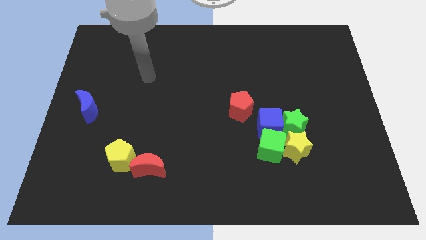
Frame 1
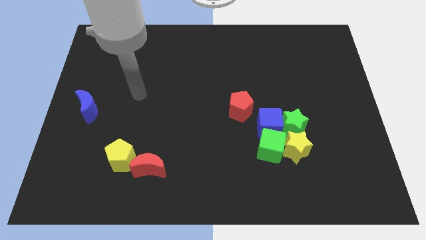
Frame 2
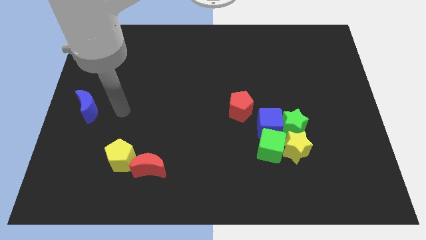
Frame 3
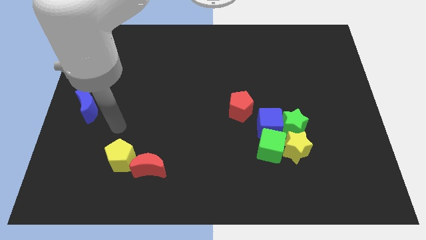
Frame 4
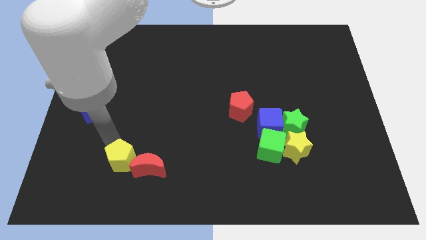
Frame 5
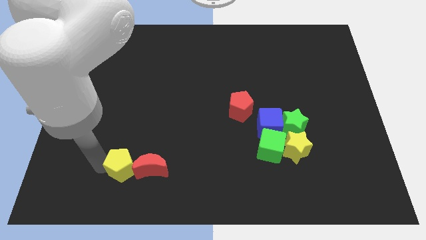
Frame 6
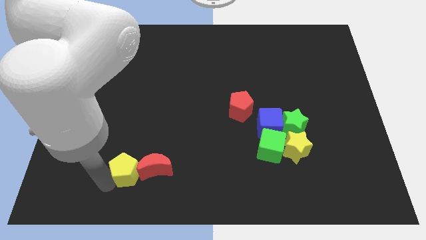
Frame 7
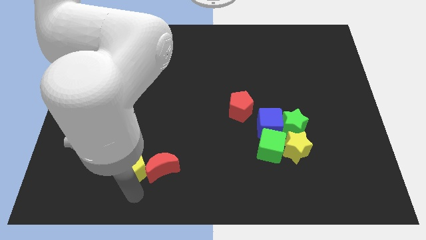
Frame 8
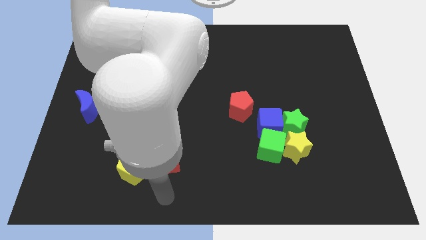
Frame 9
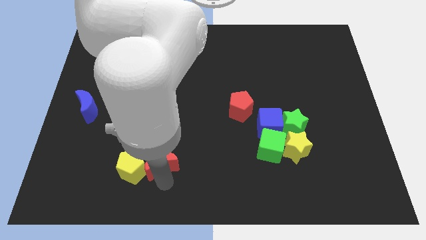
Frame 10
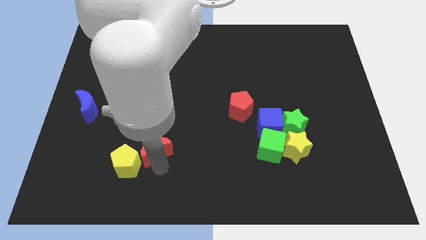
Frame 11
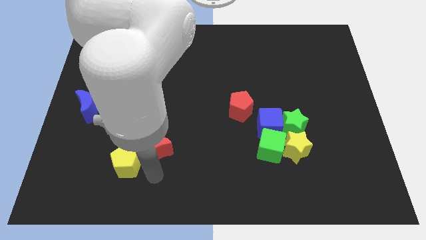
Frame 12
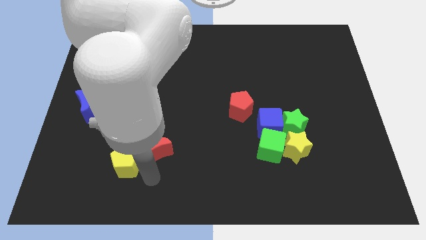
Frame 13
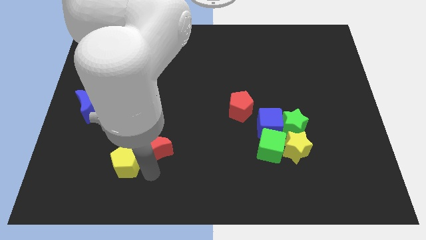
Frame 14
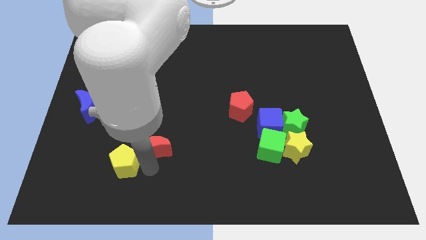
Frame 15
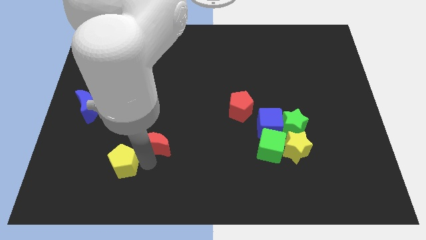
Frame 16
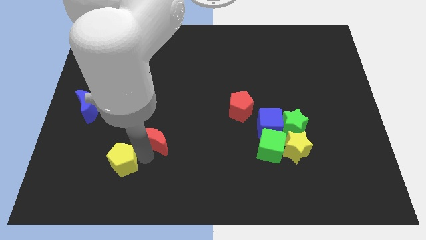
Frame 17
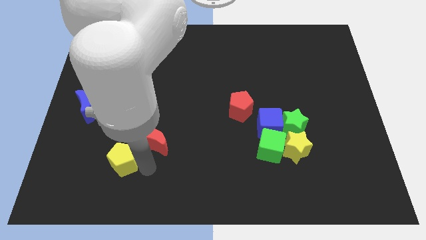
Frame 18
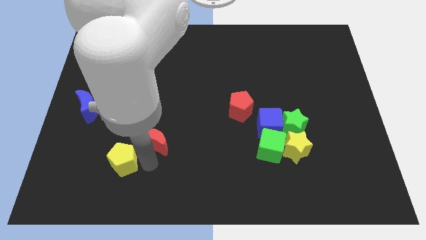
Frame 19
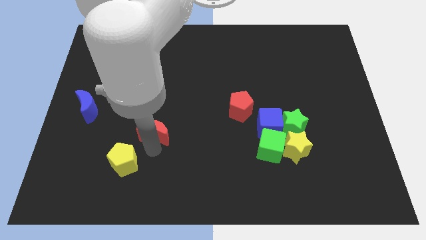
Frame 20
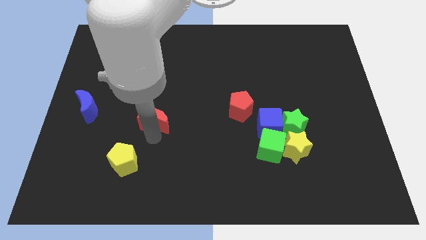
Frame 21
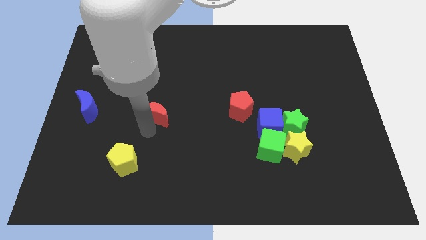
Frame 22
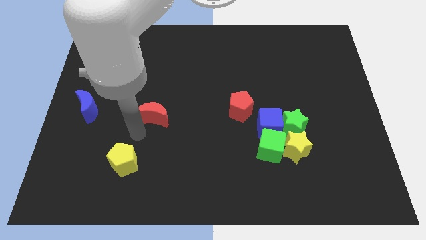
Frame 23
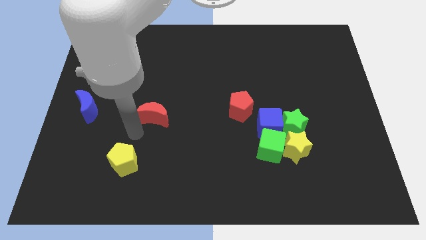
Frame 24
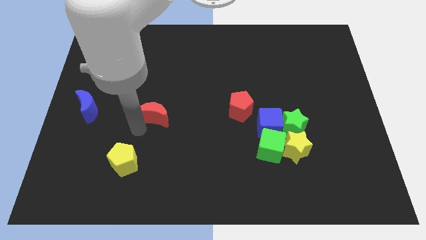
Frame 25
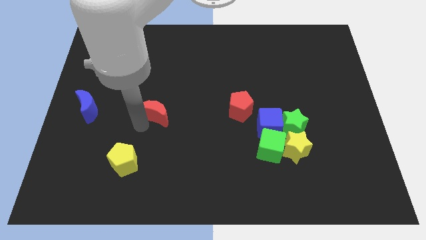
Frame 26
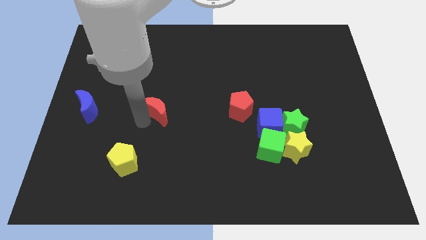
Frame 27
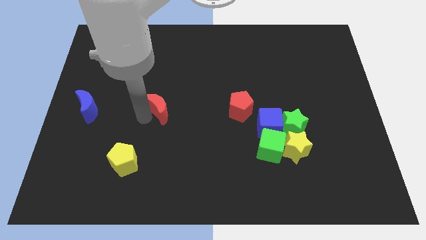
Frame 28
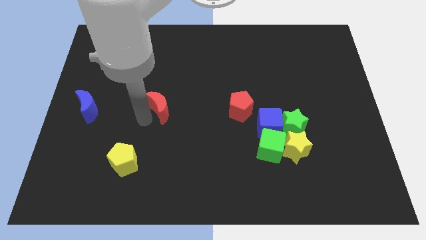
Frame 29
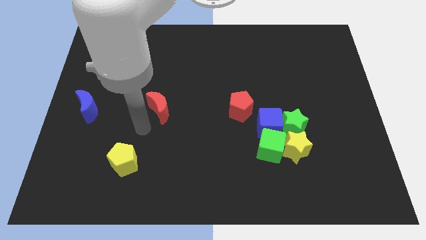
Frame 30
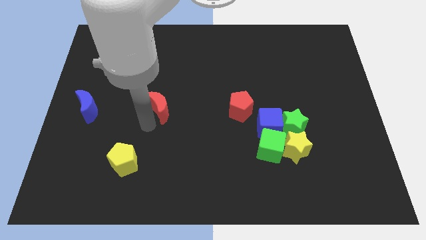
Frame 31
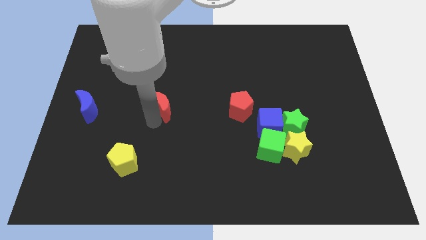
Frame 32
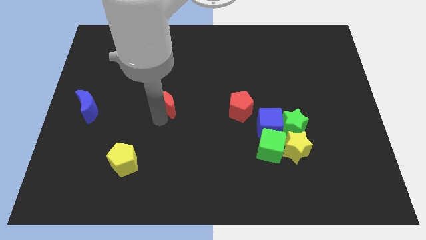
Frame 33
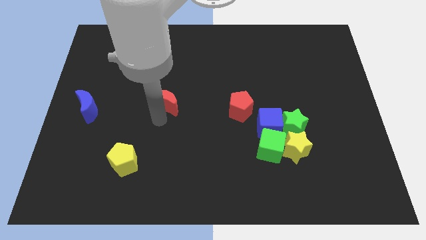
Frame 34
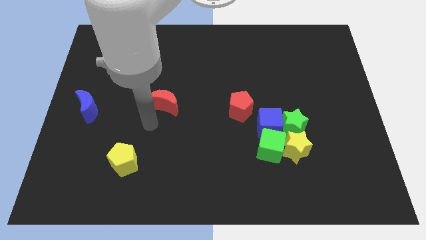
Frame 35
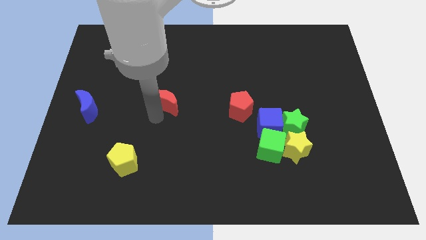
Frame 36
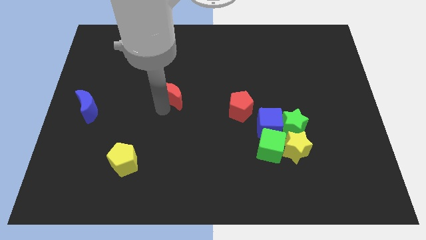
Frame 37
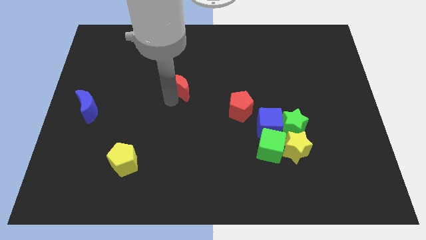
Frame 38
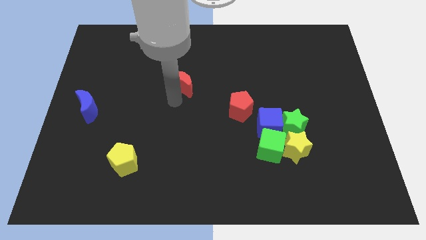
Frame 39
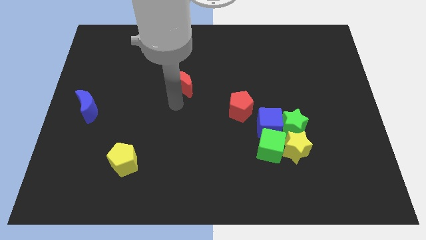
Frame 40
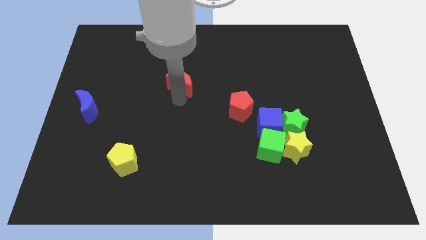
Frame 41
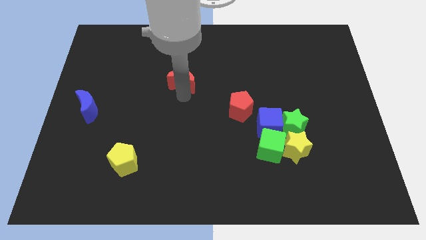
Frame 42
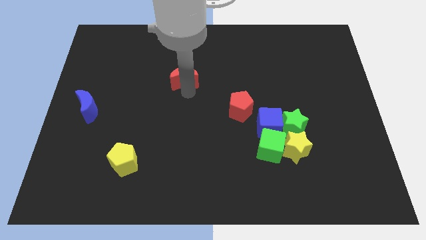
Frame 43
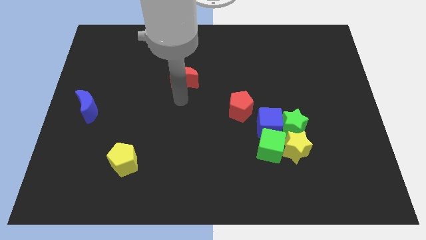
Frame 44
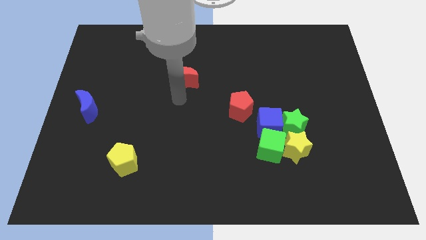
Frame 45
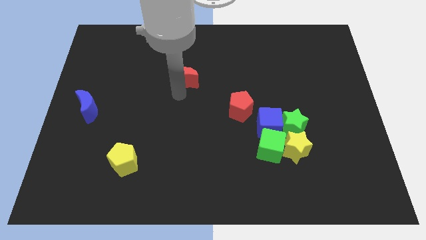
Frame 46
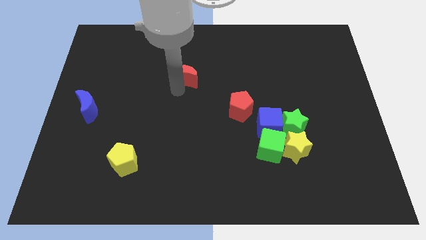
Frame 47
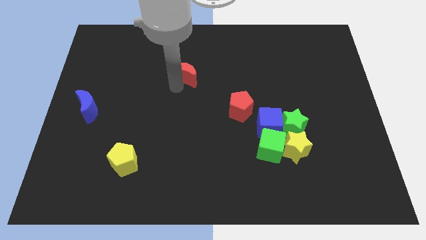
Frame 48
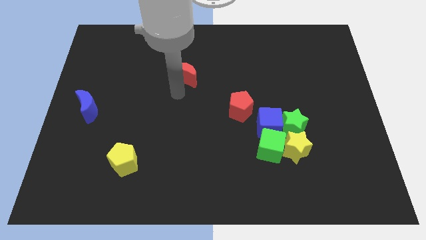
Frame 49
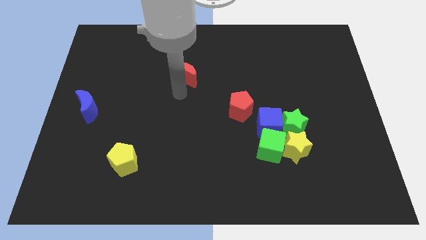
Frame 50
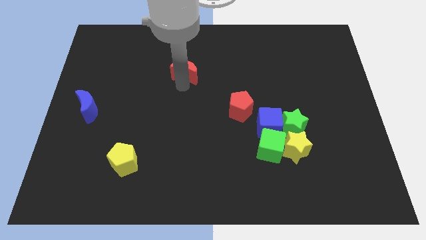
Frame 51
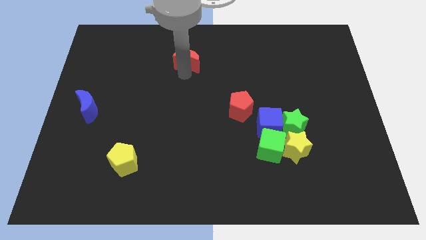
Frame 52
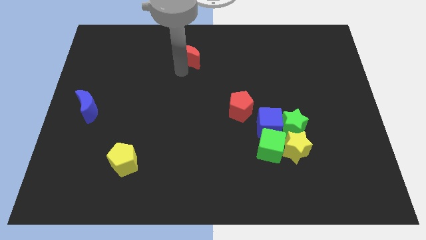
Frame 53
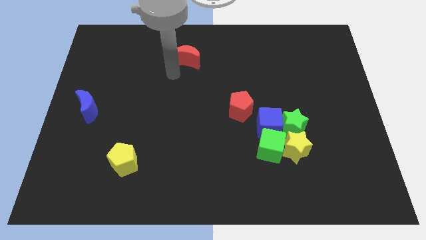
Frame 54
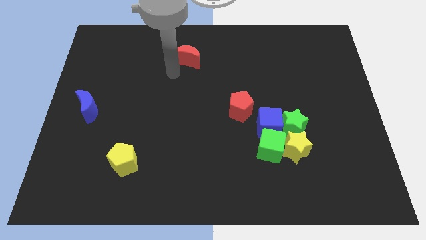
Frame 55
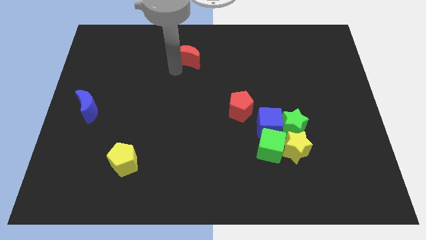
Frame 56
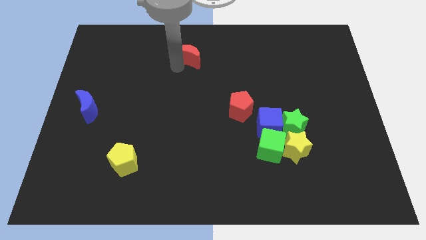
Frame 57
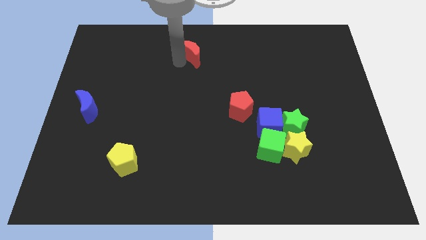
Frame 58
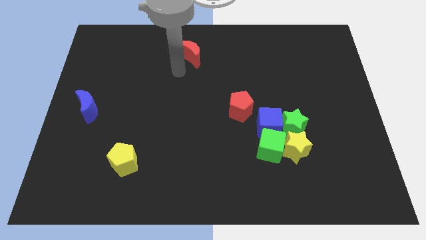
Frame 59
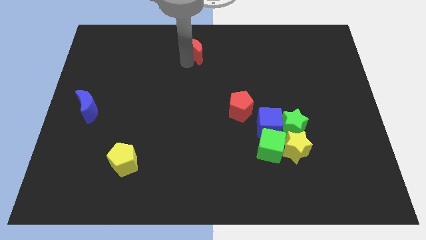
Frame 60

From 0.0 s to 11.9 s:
put the red moon to the top

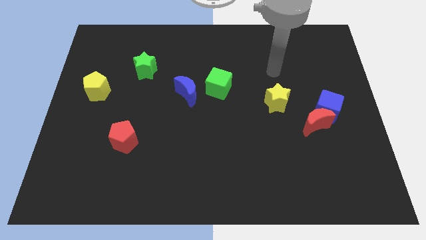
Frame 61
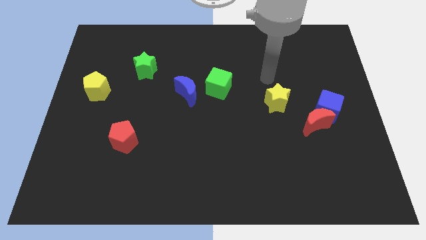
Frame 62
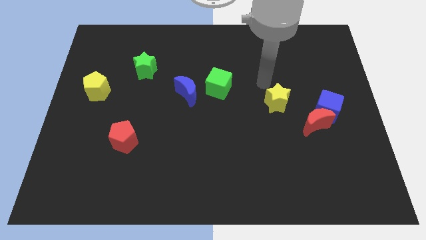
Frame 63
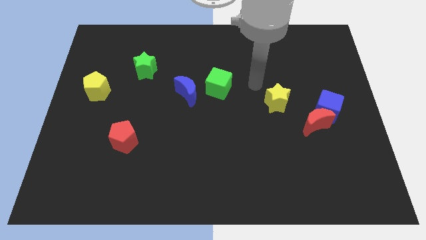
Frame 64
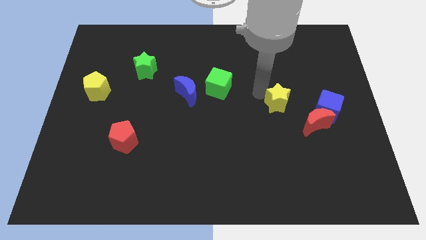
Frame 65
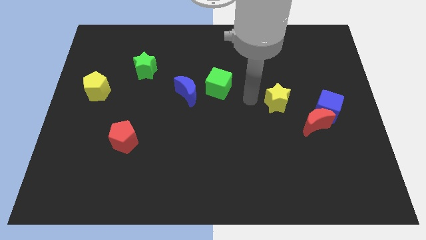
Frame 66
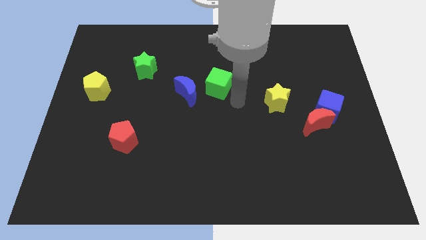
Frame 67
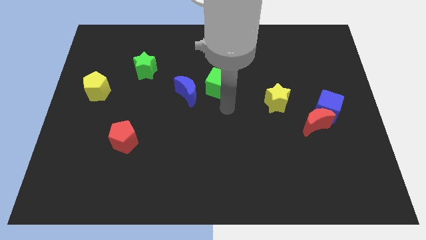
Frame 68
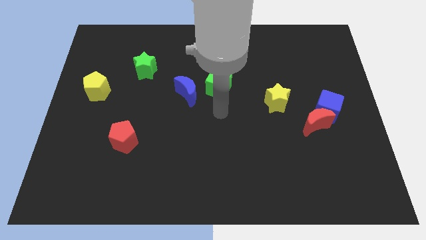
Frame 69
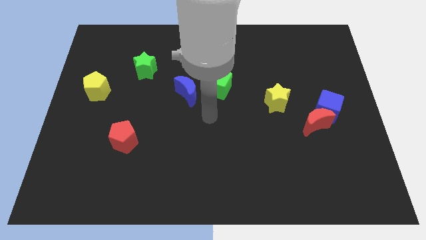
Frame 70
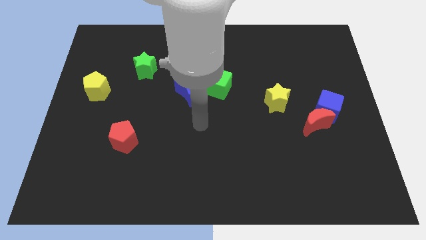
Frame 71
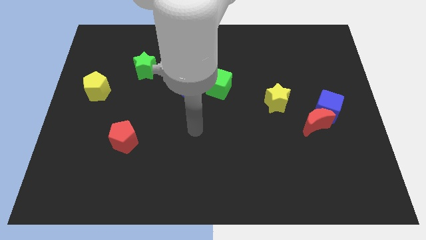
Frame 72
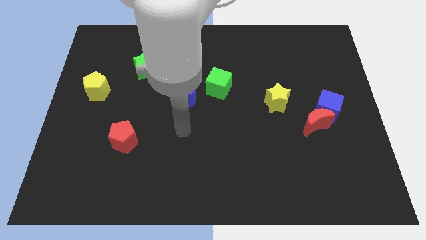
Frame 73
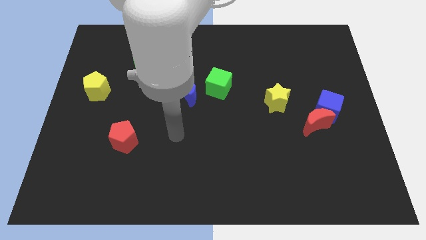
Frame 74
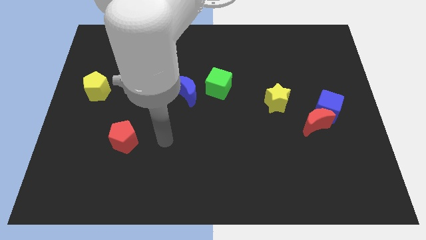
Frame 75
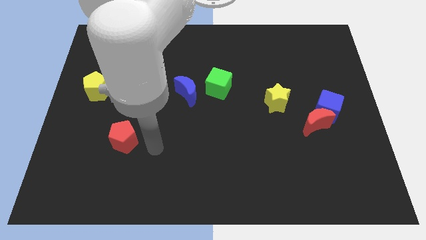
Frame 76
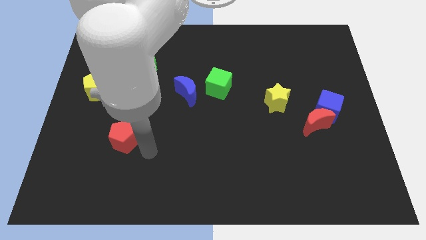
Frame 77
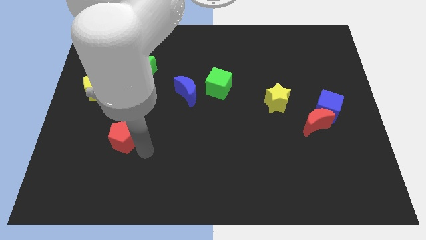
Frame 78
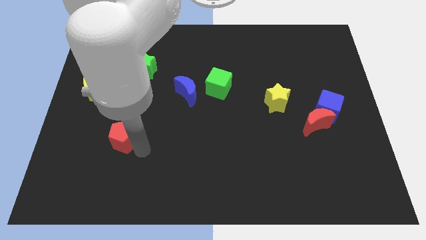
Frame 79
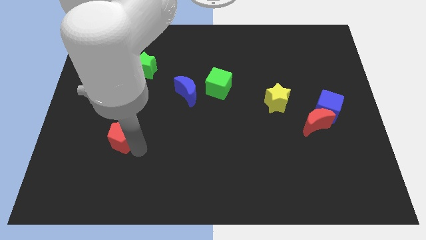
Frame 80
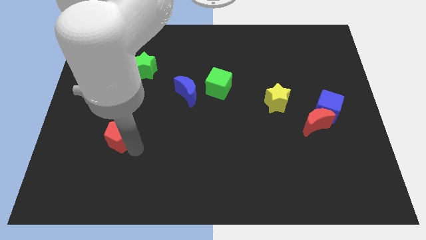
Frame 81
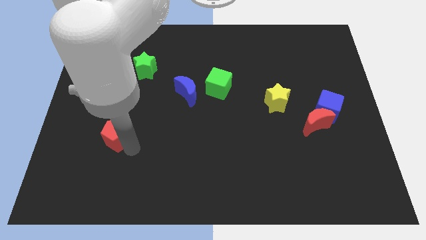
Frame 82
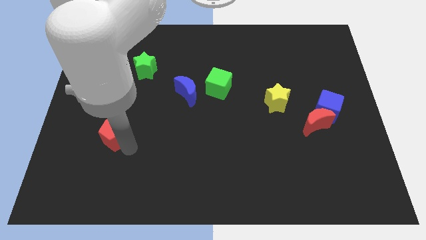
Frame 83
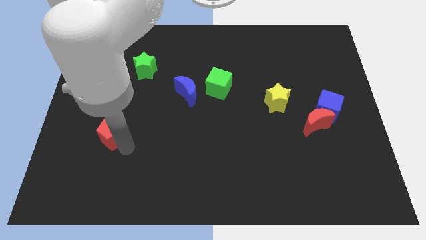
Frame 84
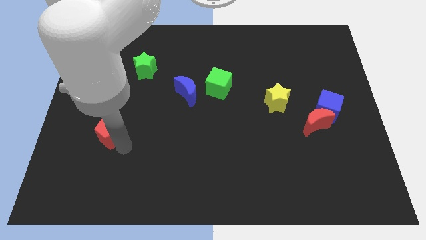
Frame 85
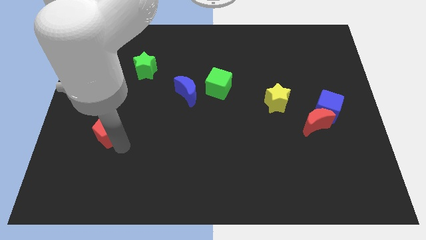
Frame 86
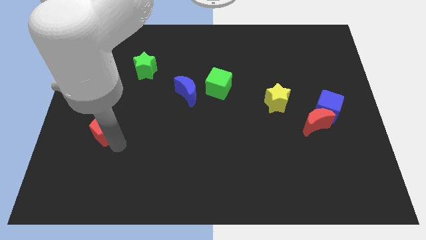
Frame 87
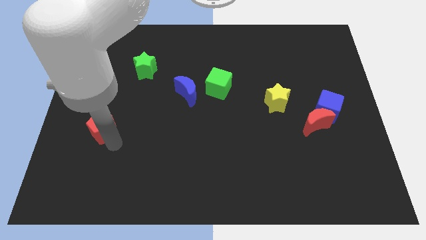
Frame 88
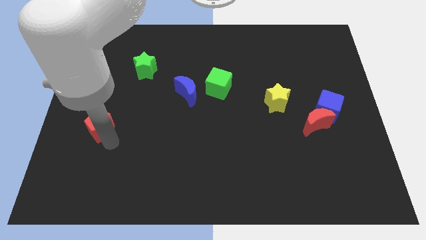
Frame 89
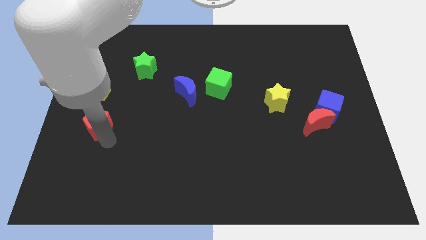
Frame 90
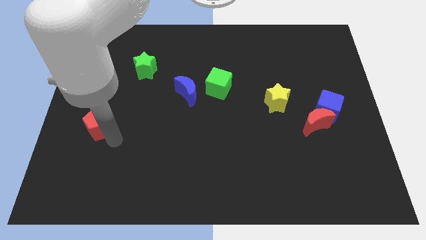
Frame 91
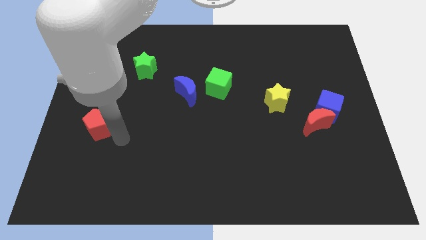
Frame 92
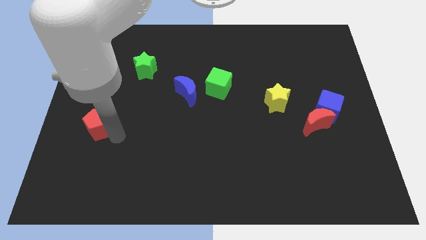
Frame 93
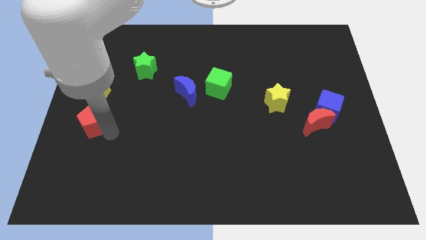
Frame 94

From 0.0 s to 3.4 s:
push the red pentagon to the left side
